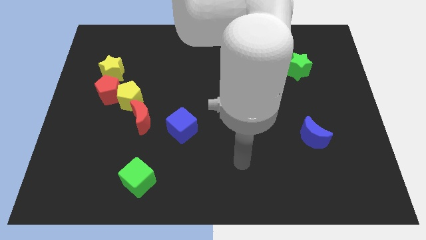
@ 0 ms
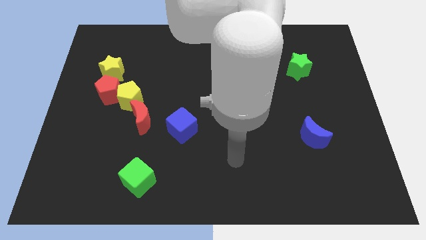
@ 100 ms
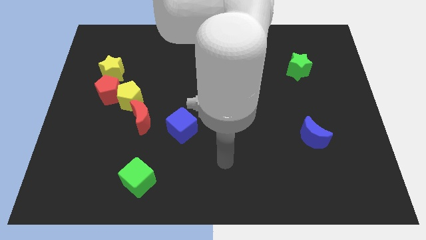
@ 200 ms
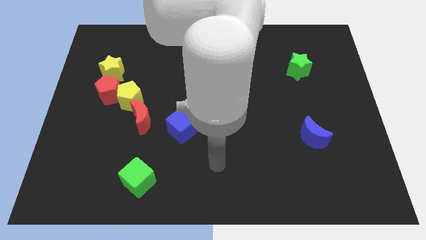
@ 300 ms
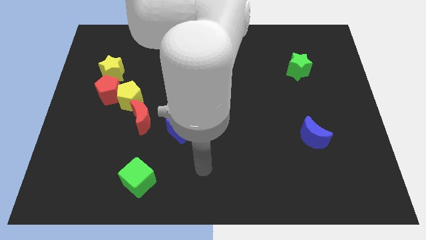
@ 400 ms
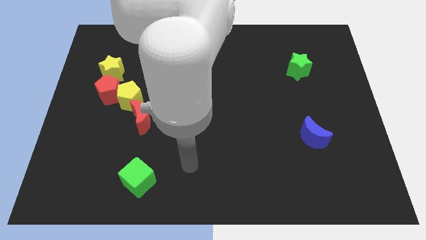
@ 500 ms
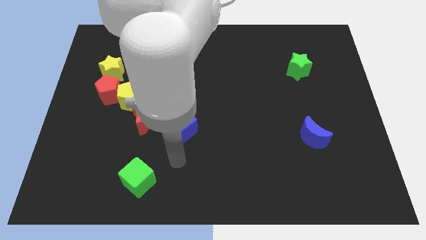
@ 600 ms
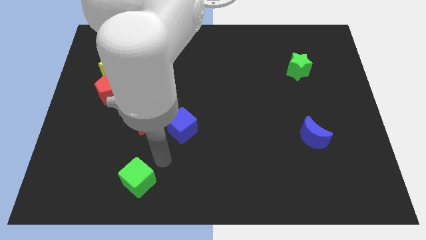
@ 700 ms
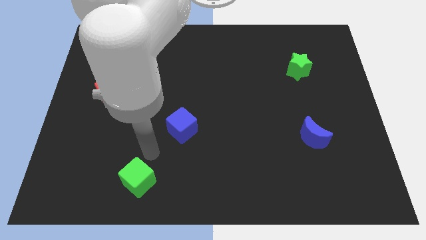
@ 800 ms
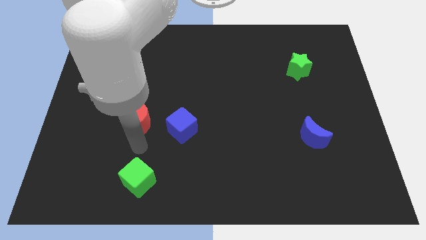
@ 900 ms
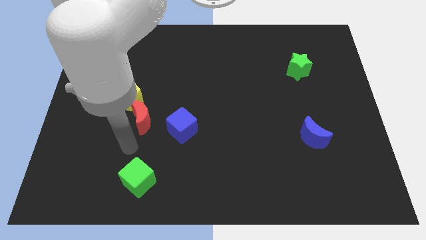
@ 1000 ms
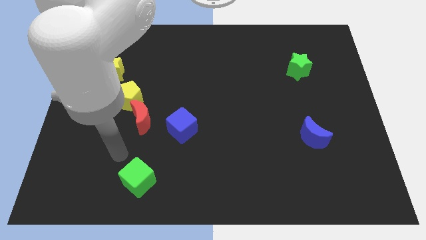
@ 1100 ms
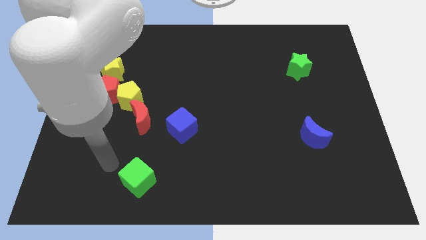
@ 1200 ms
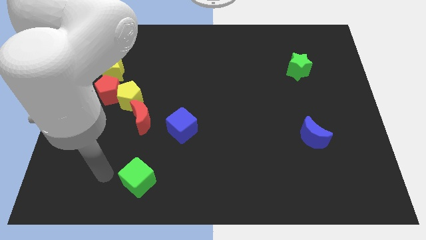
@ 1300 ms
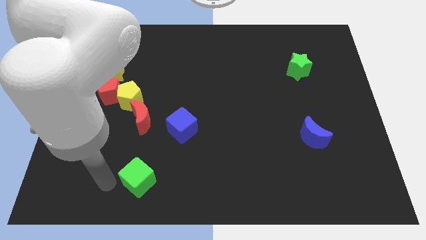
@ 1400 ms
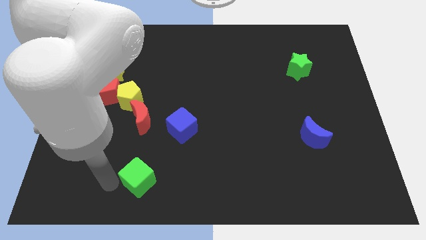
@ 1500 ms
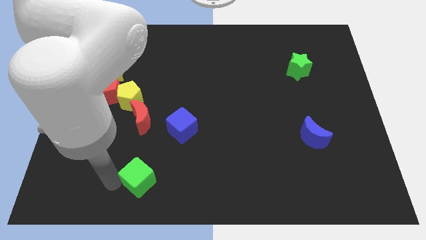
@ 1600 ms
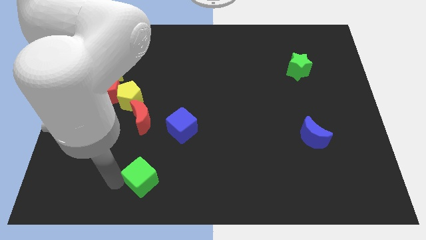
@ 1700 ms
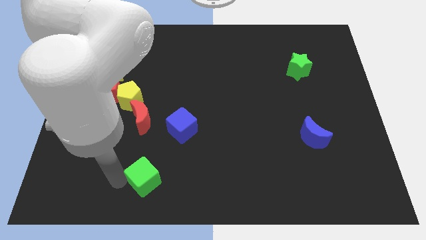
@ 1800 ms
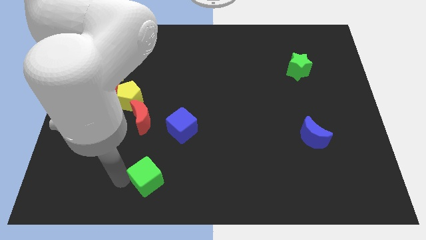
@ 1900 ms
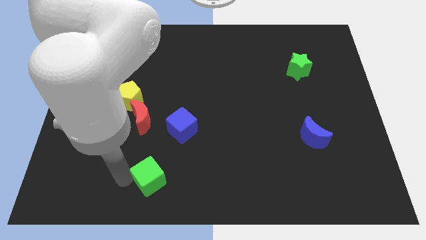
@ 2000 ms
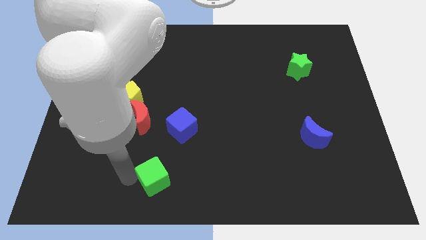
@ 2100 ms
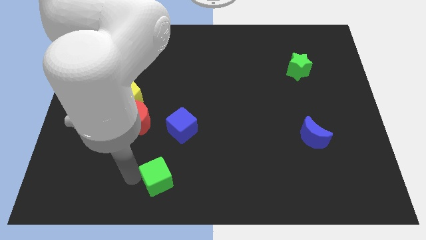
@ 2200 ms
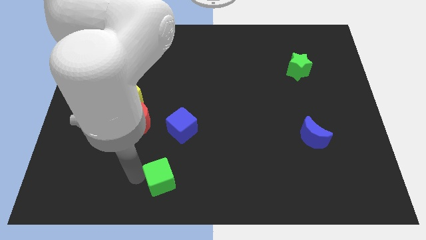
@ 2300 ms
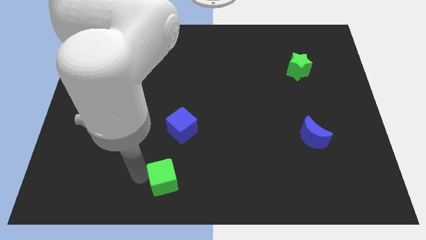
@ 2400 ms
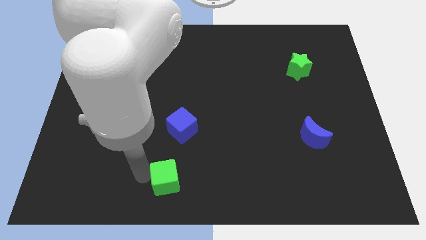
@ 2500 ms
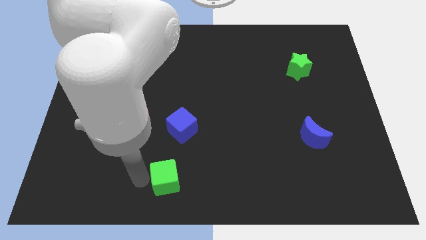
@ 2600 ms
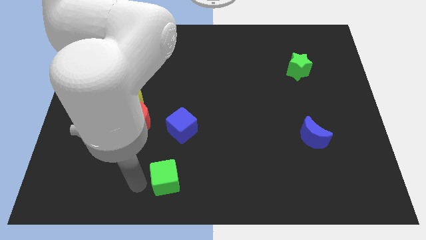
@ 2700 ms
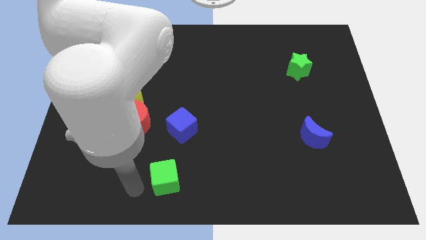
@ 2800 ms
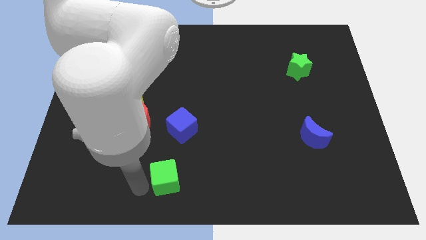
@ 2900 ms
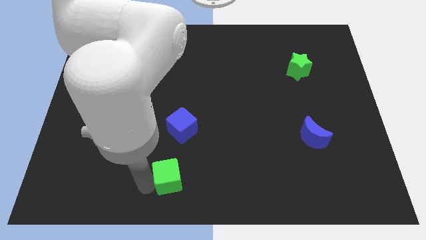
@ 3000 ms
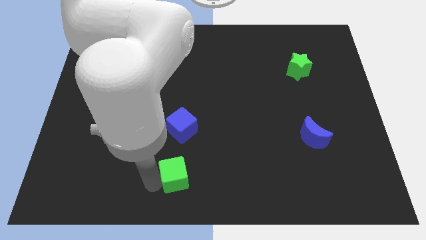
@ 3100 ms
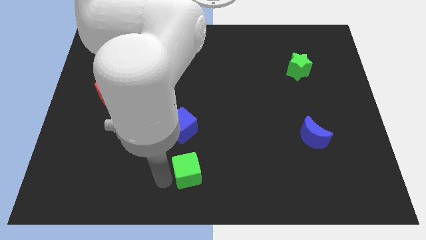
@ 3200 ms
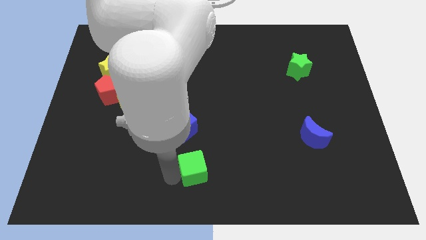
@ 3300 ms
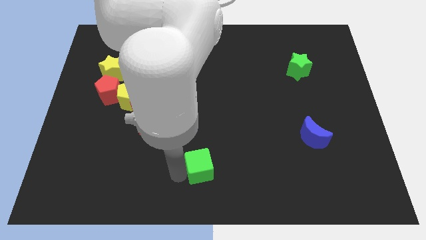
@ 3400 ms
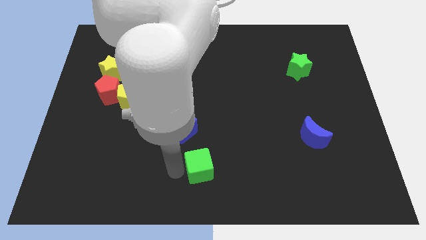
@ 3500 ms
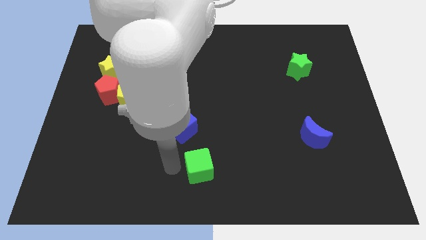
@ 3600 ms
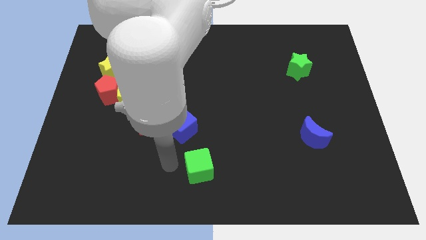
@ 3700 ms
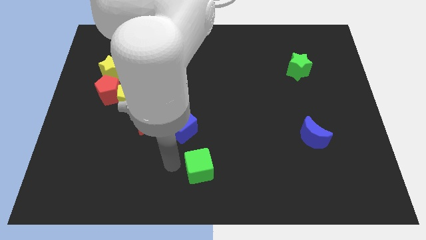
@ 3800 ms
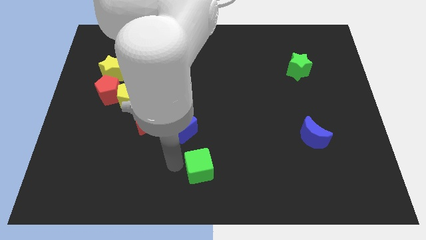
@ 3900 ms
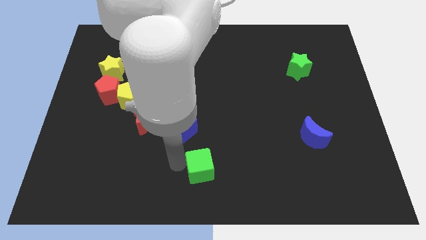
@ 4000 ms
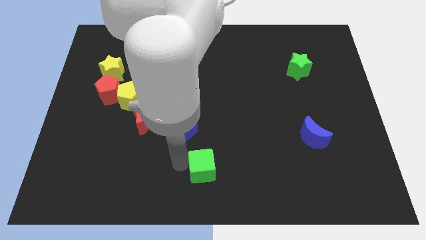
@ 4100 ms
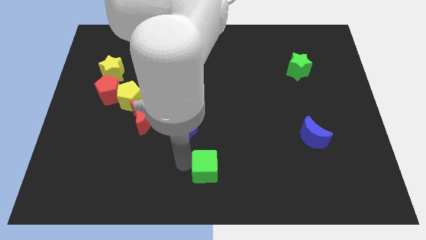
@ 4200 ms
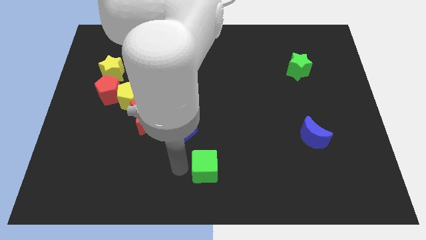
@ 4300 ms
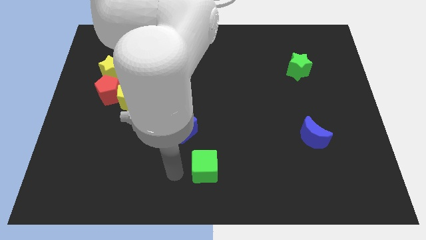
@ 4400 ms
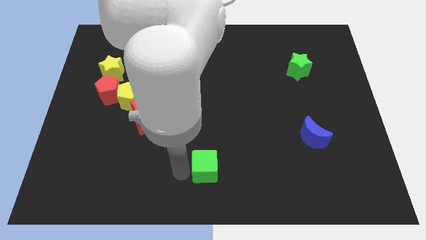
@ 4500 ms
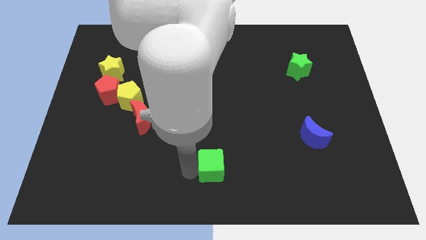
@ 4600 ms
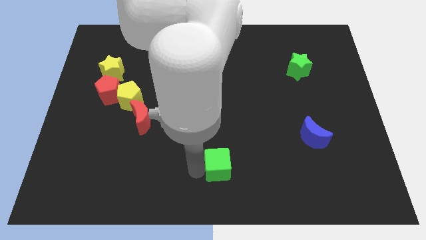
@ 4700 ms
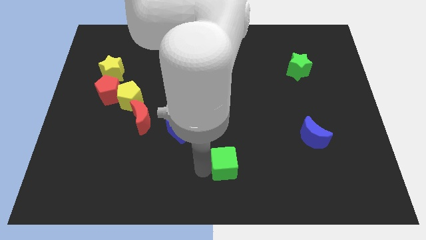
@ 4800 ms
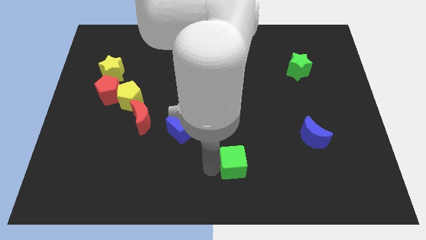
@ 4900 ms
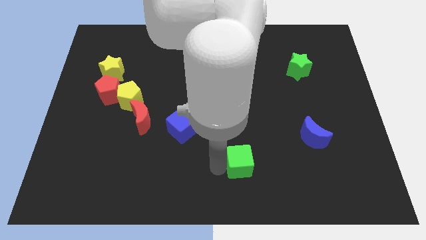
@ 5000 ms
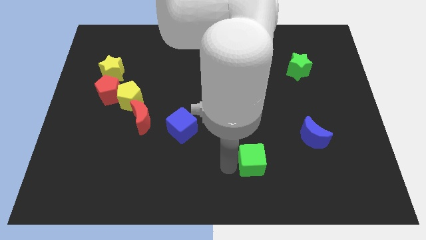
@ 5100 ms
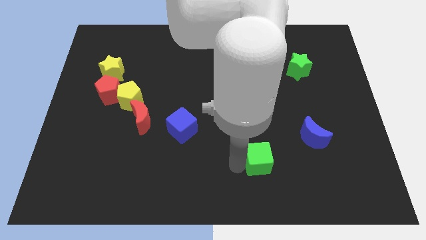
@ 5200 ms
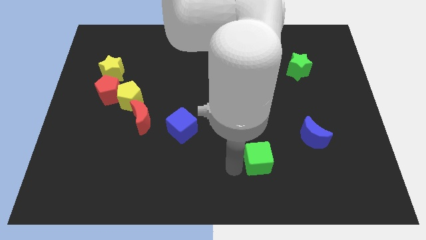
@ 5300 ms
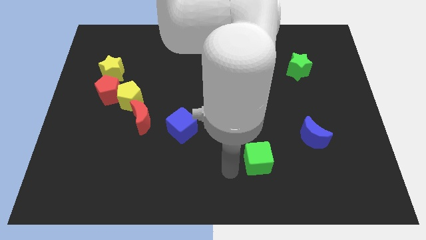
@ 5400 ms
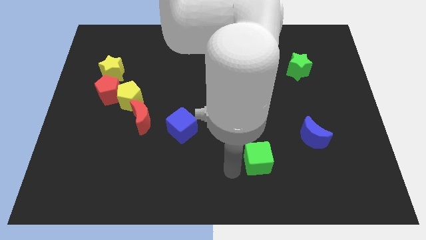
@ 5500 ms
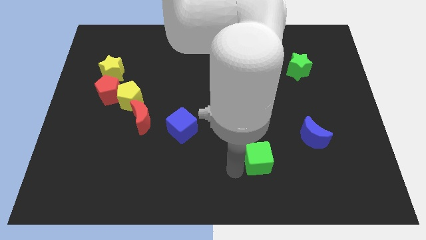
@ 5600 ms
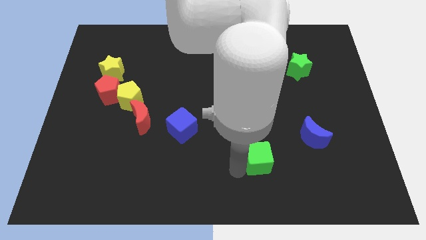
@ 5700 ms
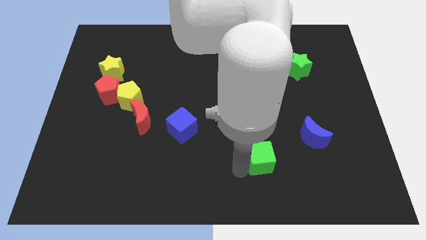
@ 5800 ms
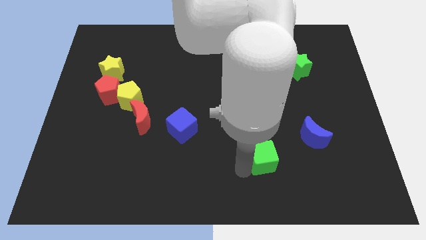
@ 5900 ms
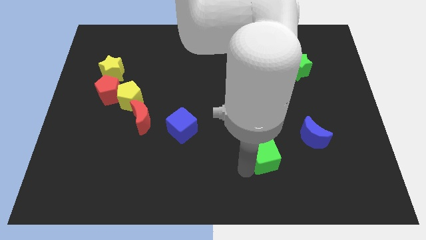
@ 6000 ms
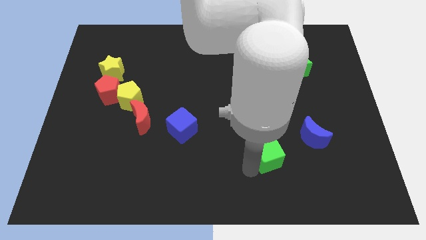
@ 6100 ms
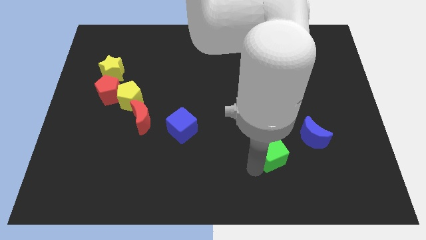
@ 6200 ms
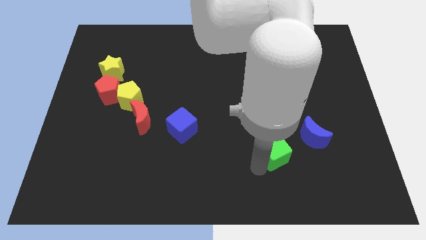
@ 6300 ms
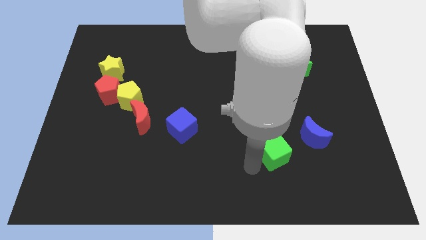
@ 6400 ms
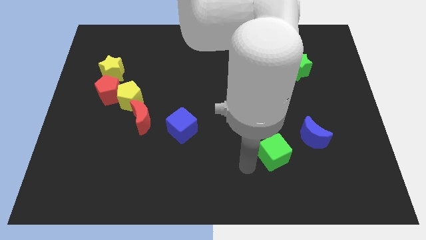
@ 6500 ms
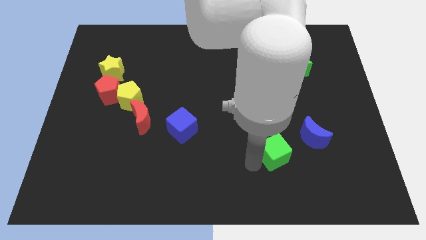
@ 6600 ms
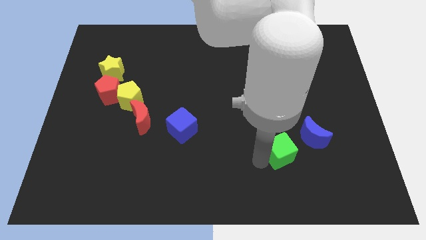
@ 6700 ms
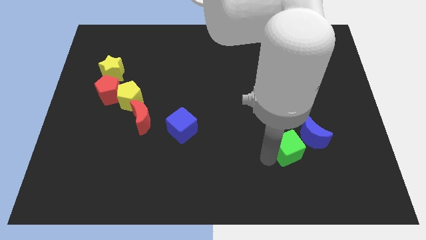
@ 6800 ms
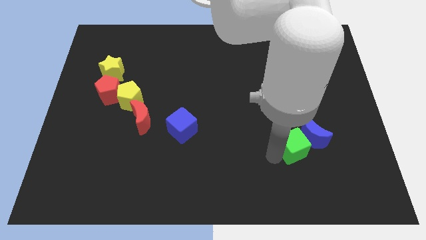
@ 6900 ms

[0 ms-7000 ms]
push the green cube close to the blue moon
